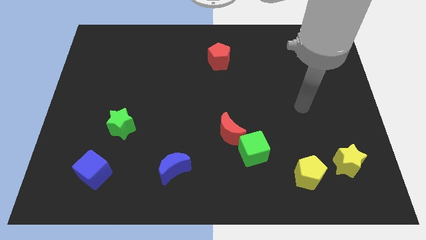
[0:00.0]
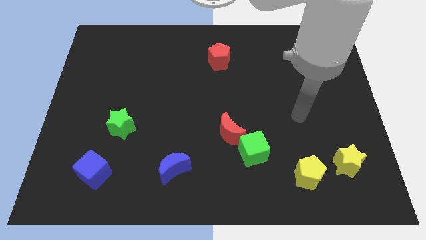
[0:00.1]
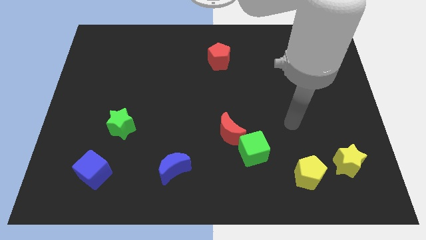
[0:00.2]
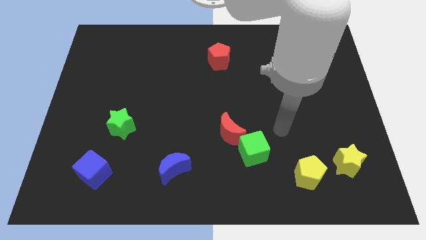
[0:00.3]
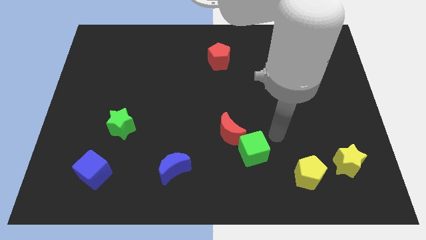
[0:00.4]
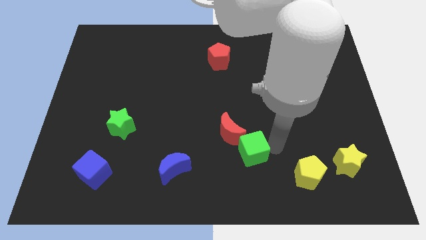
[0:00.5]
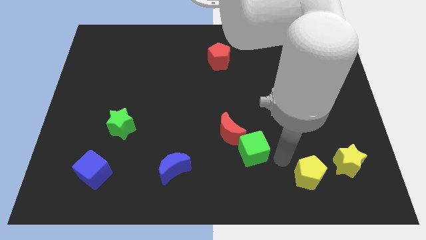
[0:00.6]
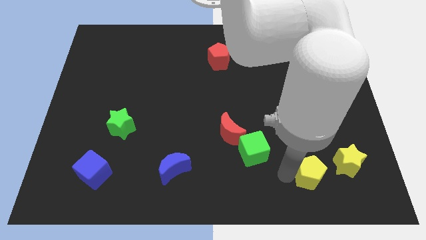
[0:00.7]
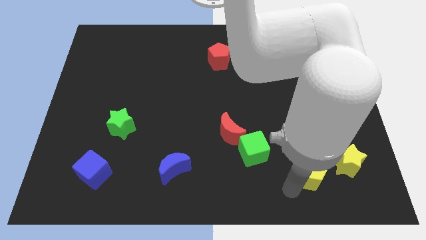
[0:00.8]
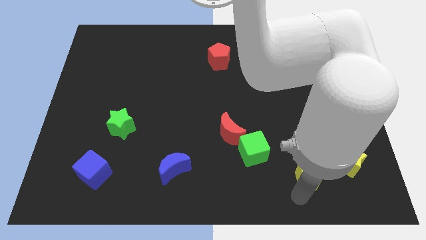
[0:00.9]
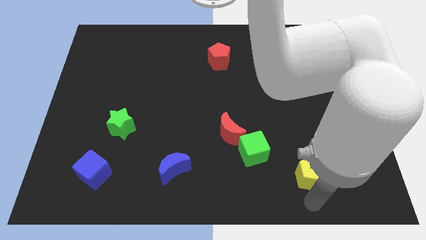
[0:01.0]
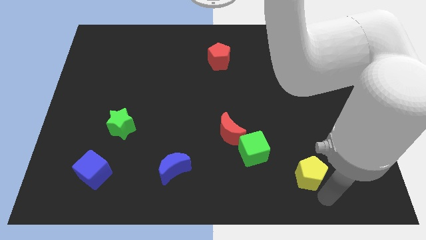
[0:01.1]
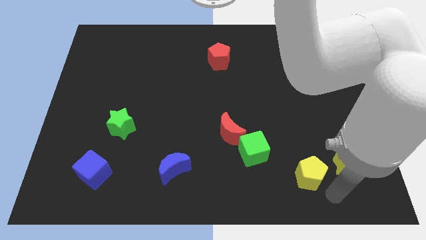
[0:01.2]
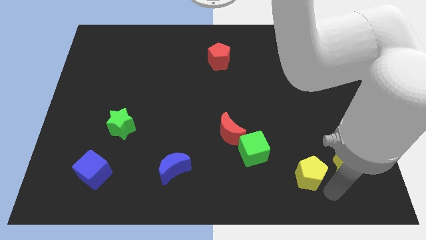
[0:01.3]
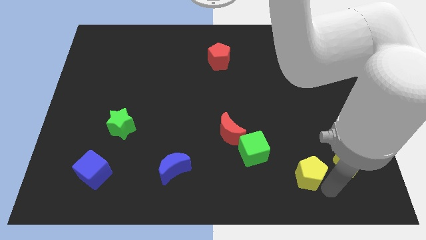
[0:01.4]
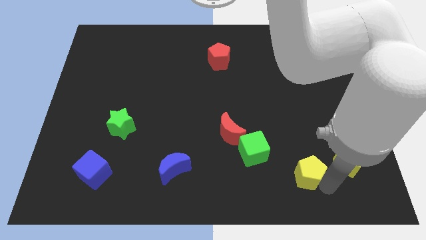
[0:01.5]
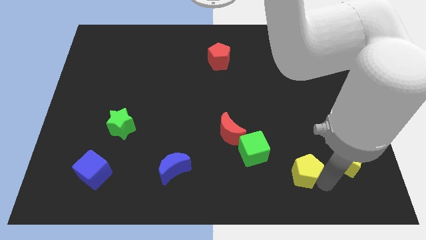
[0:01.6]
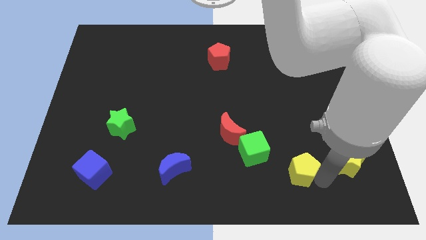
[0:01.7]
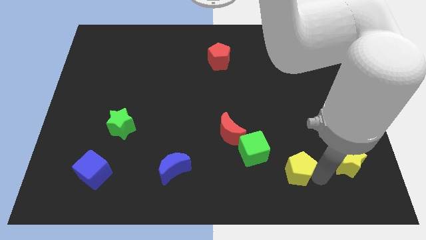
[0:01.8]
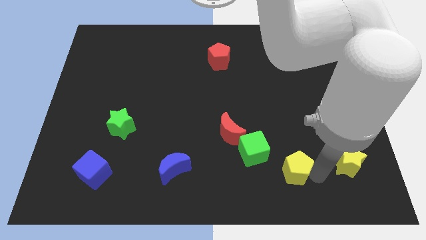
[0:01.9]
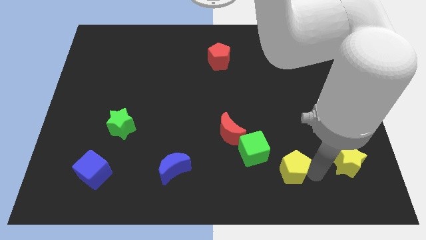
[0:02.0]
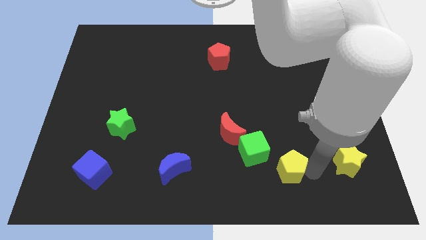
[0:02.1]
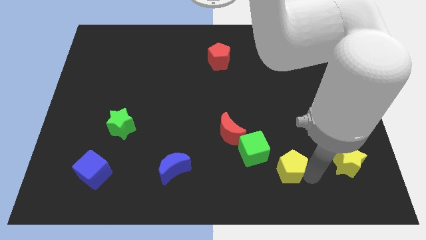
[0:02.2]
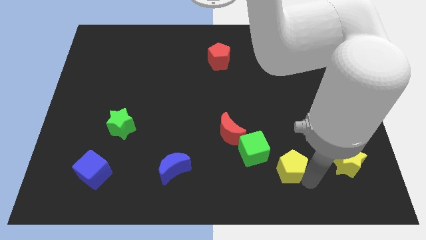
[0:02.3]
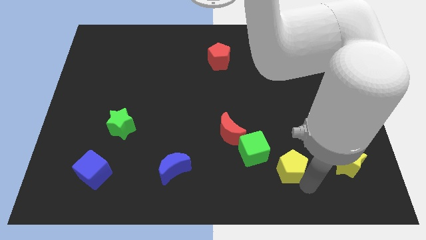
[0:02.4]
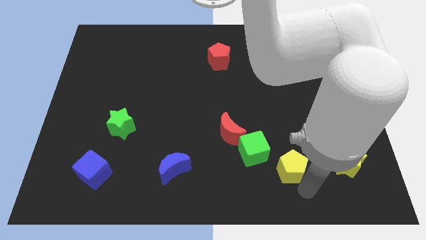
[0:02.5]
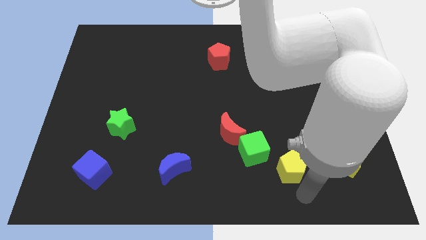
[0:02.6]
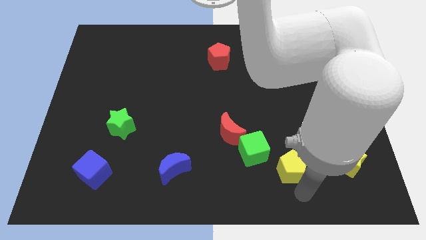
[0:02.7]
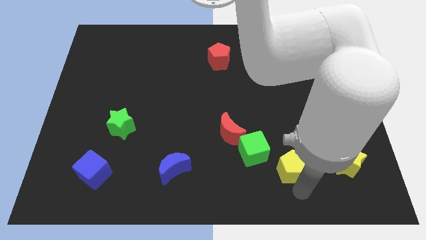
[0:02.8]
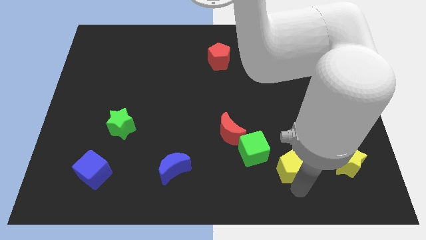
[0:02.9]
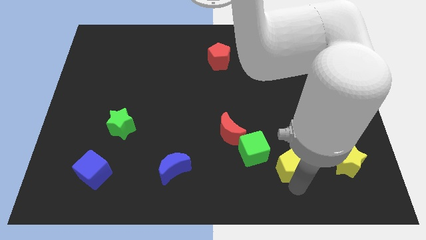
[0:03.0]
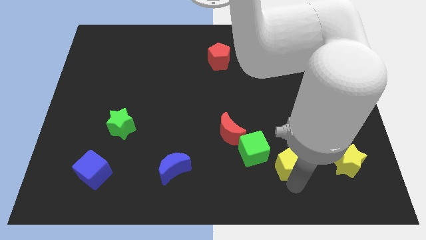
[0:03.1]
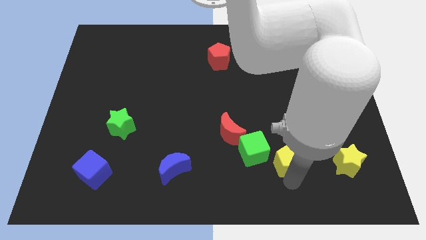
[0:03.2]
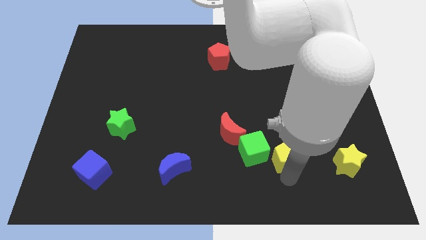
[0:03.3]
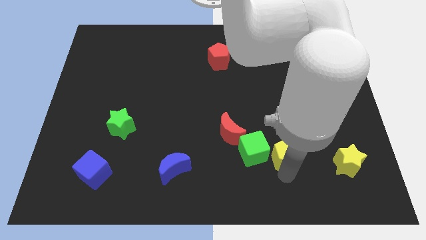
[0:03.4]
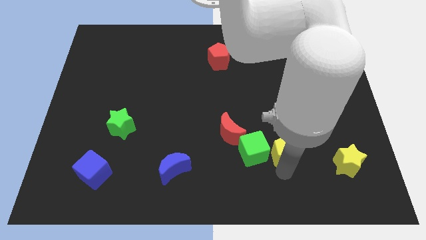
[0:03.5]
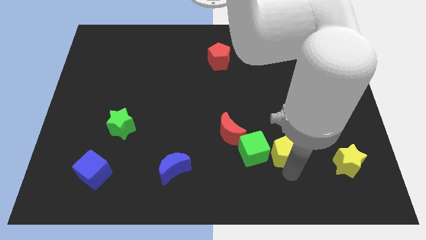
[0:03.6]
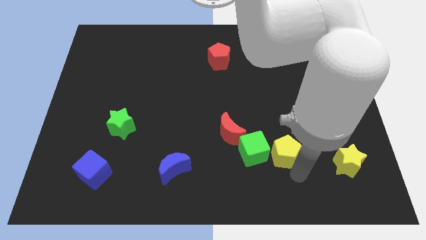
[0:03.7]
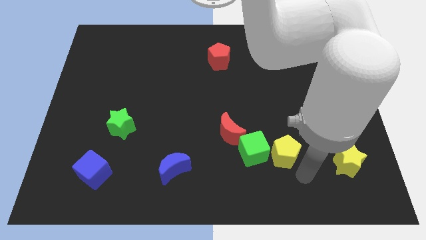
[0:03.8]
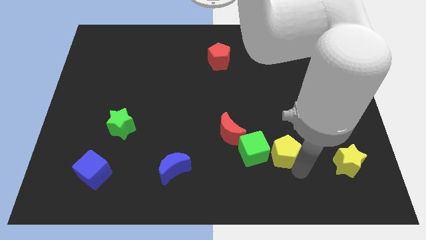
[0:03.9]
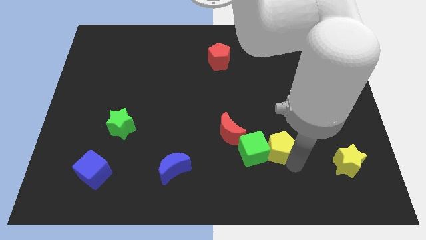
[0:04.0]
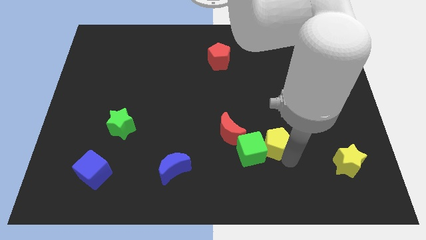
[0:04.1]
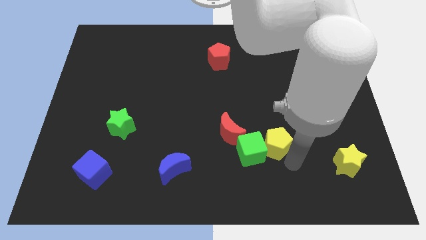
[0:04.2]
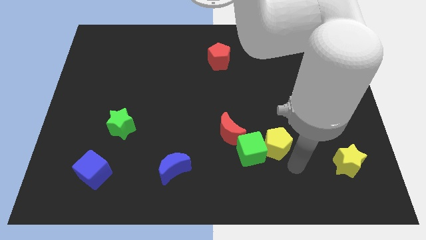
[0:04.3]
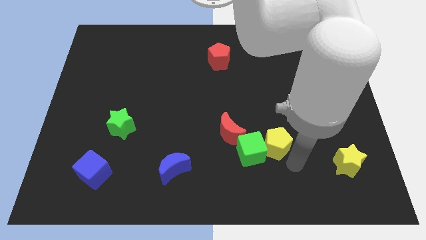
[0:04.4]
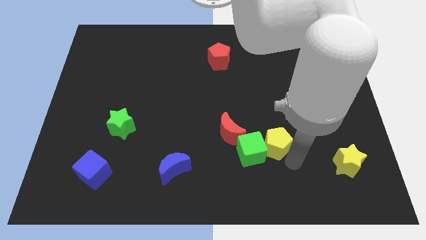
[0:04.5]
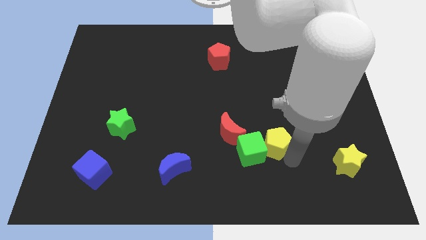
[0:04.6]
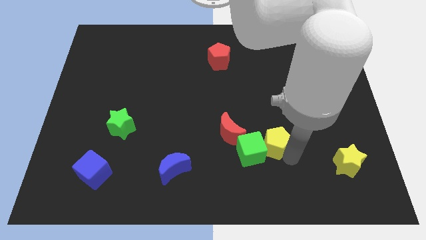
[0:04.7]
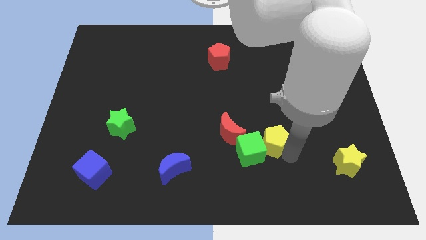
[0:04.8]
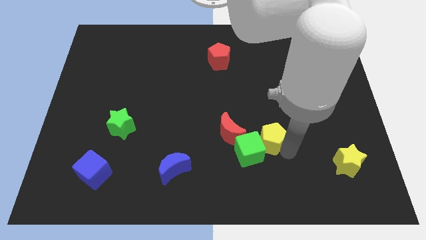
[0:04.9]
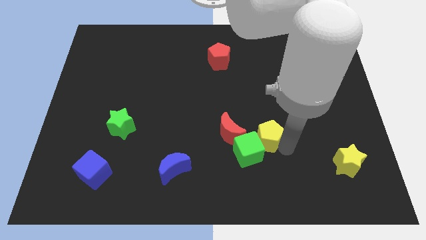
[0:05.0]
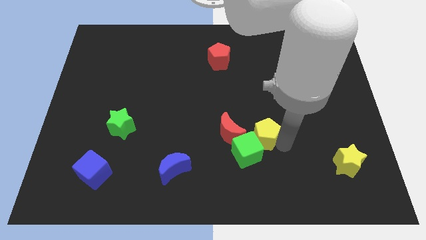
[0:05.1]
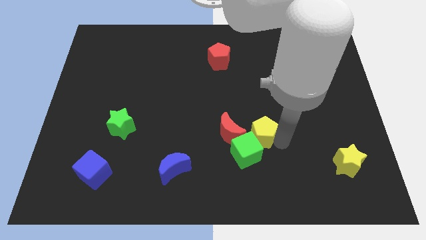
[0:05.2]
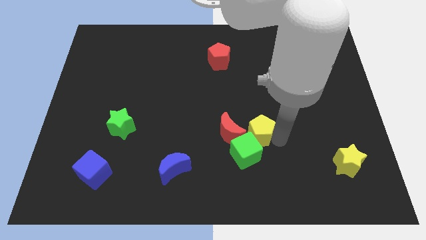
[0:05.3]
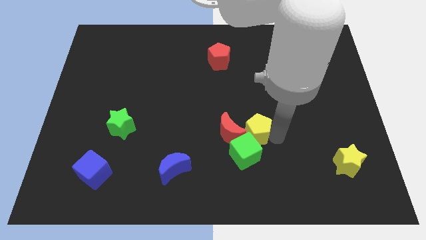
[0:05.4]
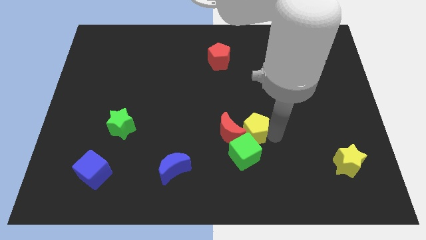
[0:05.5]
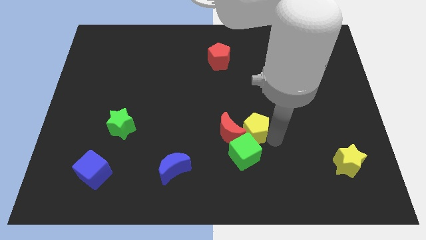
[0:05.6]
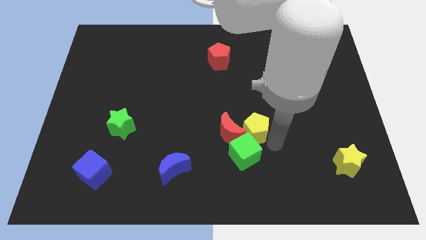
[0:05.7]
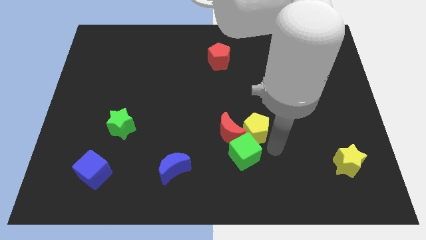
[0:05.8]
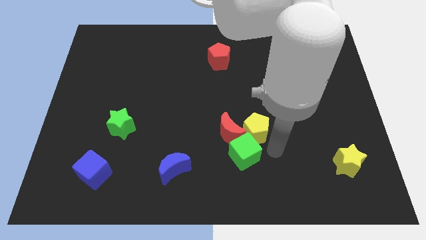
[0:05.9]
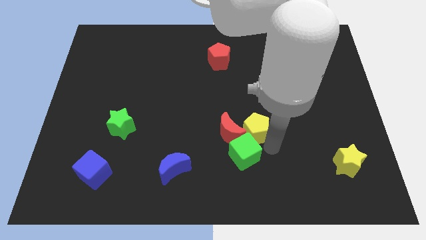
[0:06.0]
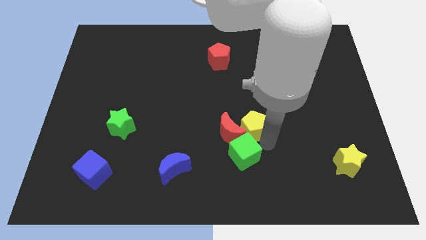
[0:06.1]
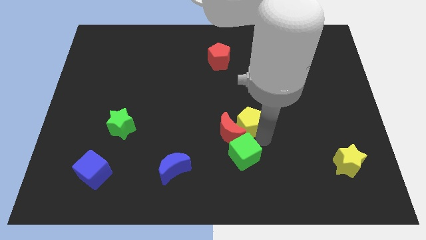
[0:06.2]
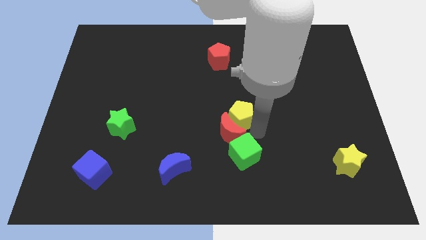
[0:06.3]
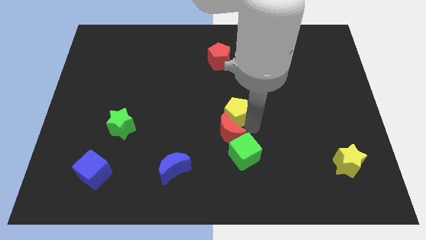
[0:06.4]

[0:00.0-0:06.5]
move the yellow pentagon diagonally up and to the left

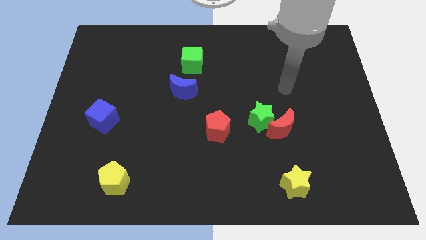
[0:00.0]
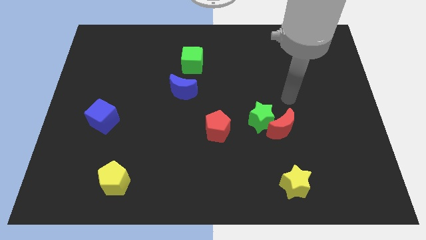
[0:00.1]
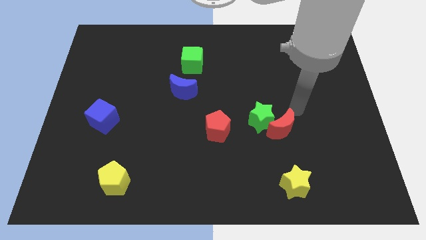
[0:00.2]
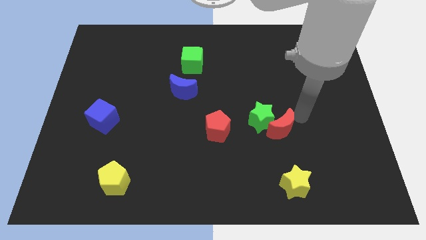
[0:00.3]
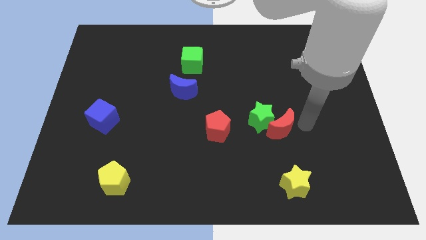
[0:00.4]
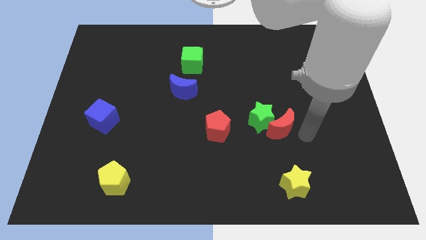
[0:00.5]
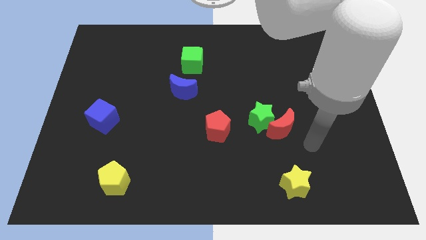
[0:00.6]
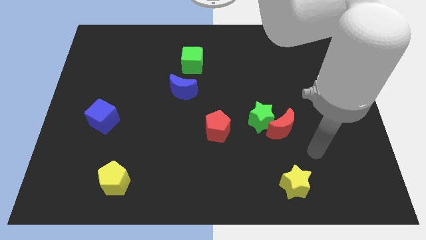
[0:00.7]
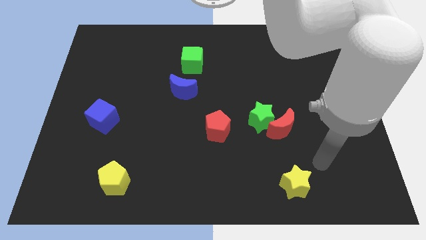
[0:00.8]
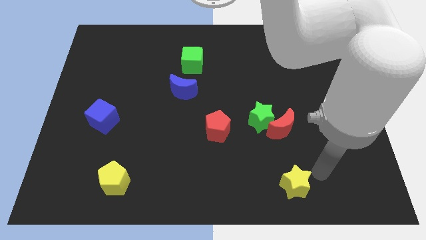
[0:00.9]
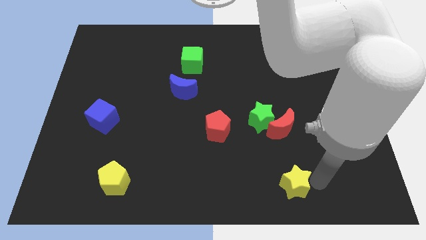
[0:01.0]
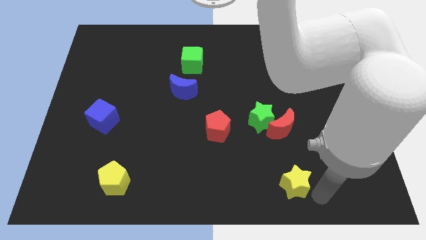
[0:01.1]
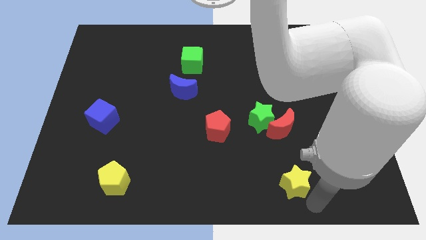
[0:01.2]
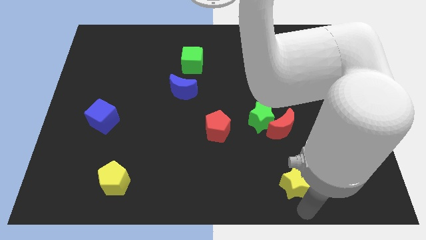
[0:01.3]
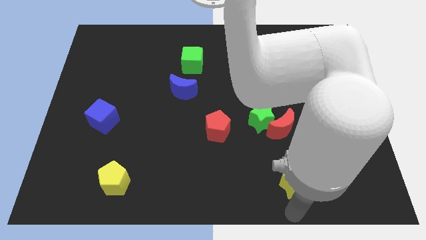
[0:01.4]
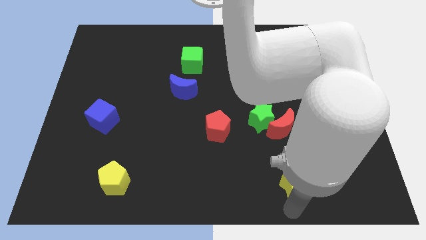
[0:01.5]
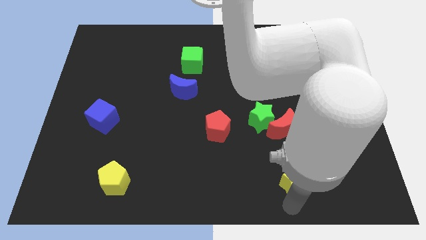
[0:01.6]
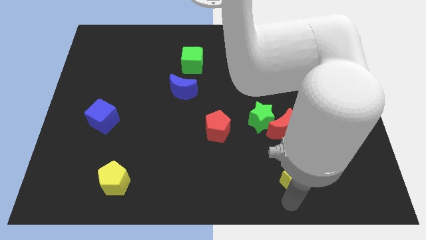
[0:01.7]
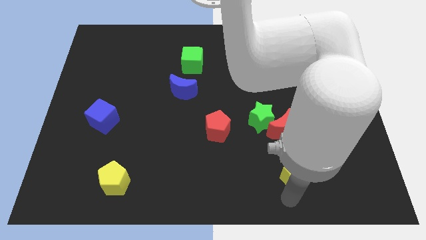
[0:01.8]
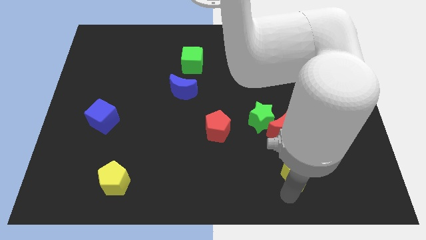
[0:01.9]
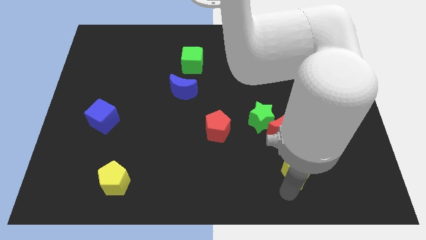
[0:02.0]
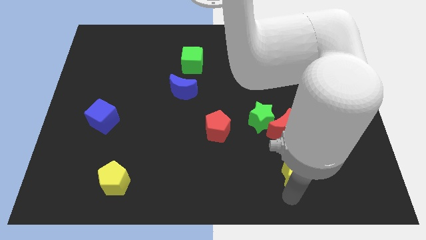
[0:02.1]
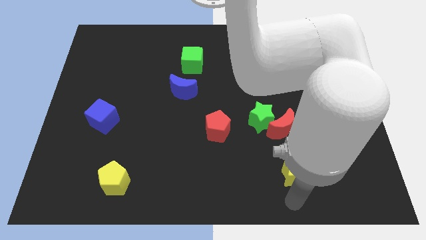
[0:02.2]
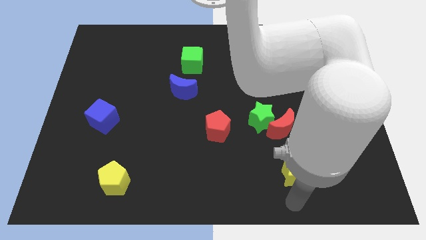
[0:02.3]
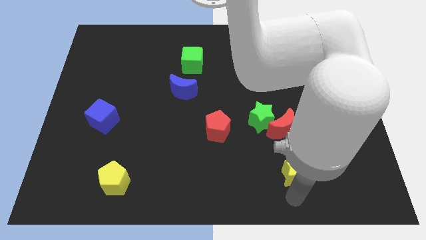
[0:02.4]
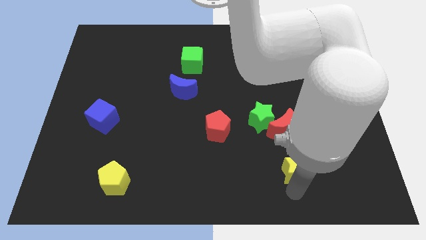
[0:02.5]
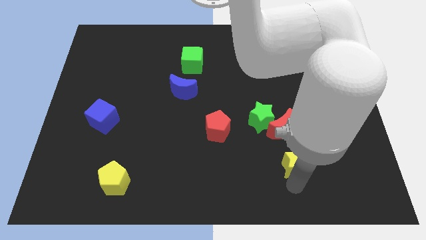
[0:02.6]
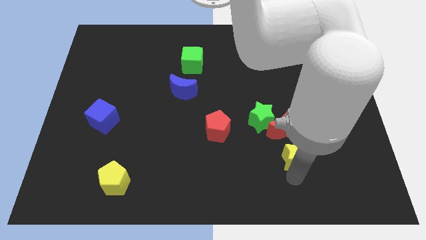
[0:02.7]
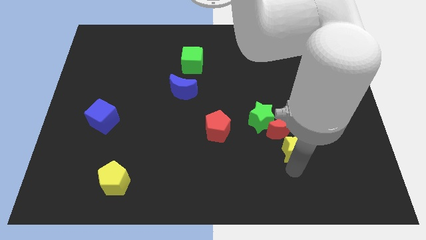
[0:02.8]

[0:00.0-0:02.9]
push the yellow star upwards slightly
